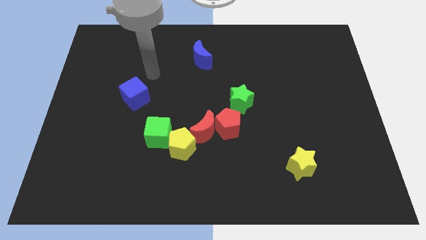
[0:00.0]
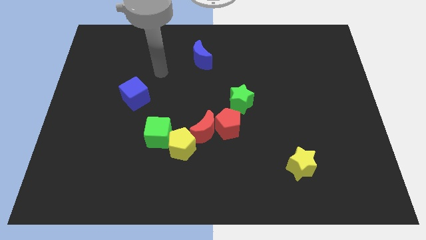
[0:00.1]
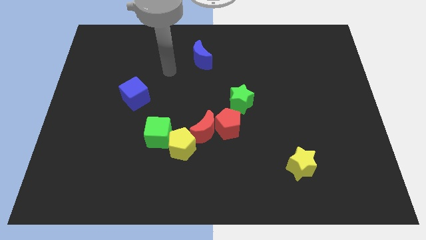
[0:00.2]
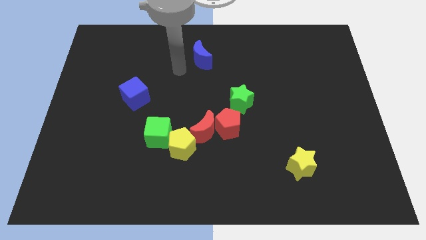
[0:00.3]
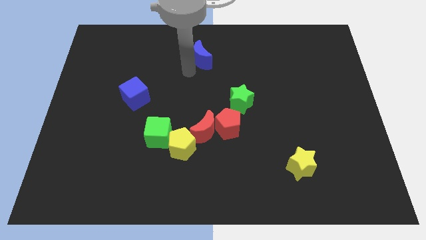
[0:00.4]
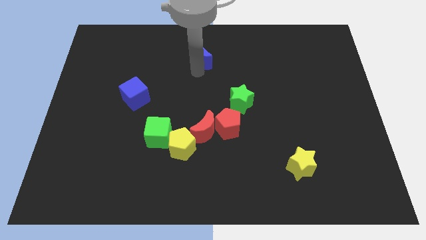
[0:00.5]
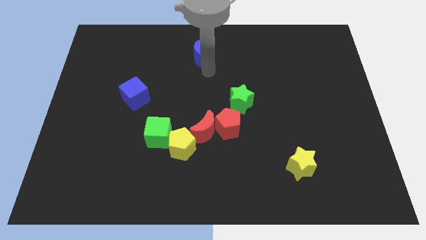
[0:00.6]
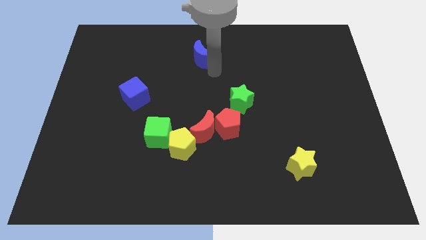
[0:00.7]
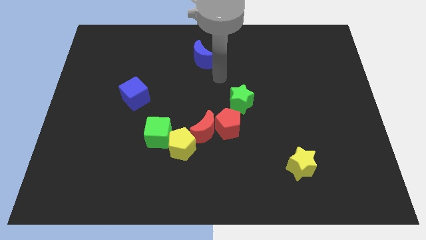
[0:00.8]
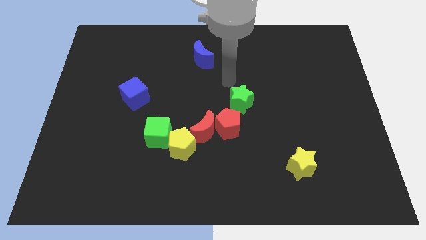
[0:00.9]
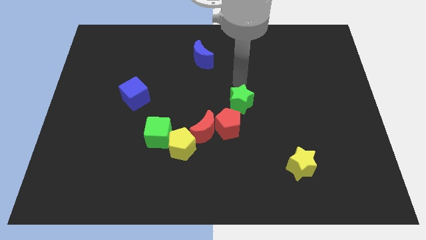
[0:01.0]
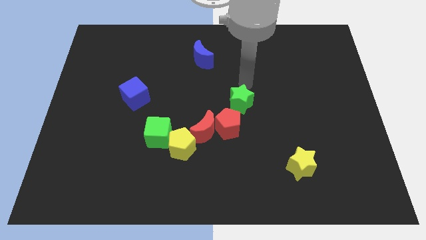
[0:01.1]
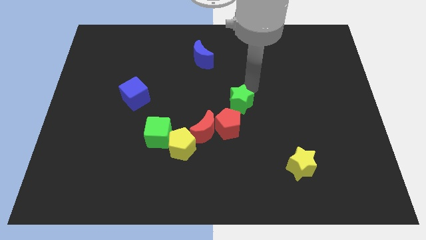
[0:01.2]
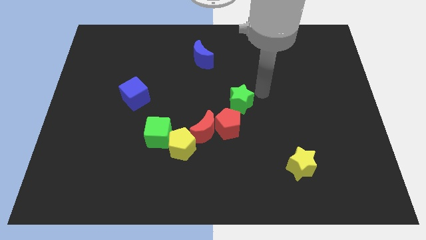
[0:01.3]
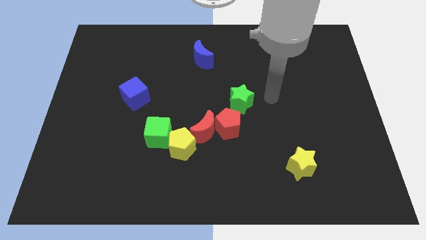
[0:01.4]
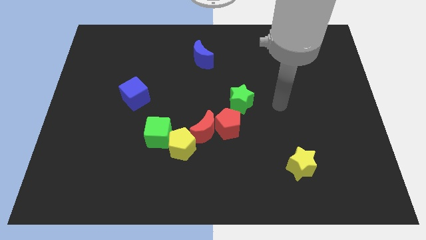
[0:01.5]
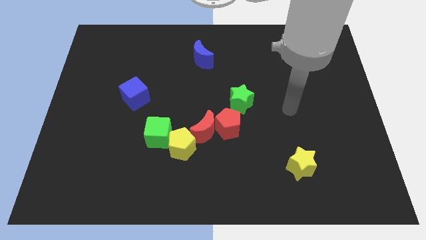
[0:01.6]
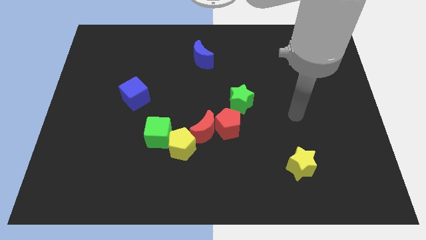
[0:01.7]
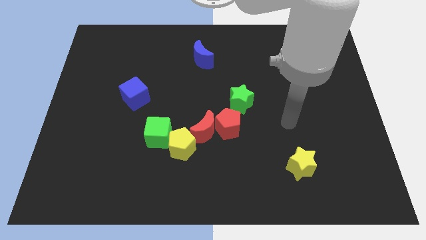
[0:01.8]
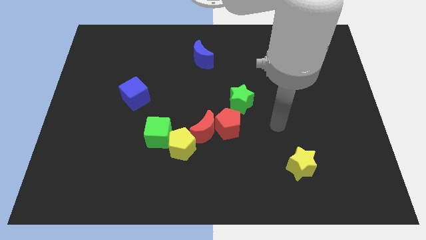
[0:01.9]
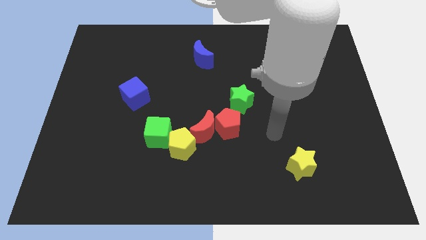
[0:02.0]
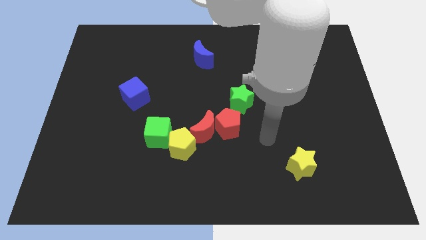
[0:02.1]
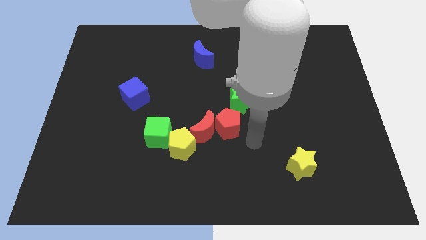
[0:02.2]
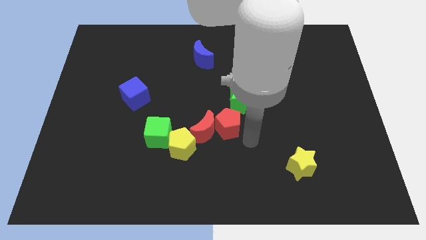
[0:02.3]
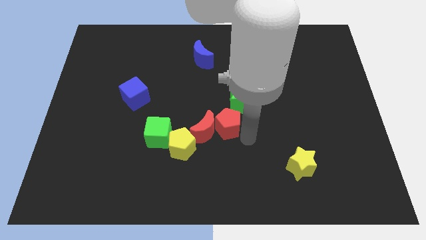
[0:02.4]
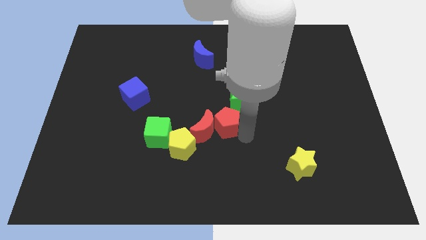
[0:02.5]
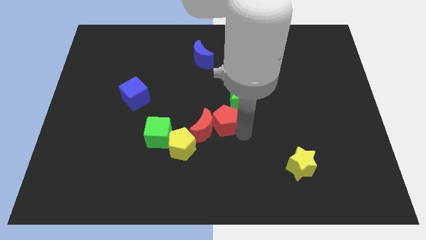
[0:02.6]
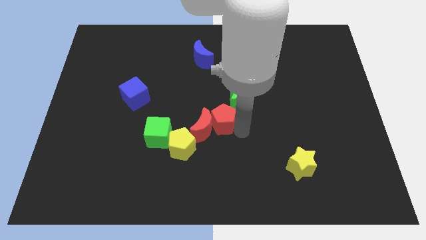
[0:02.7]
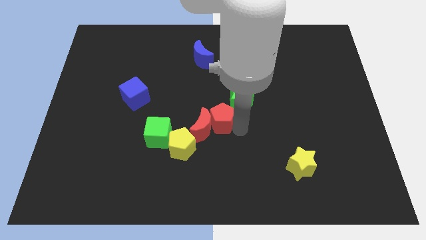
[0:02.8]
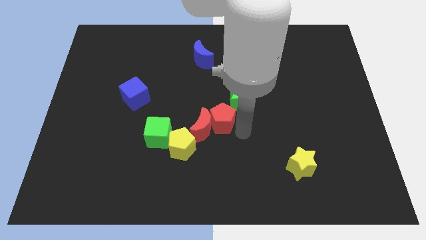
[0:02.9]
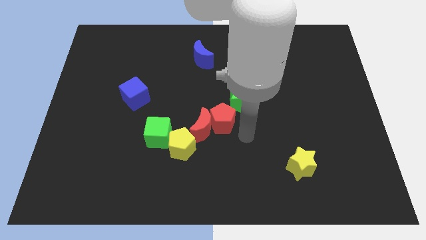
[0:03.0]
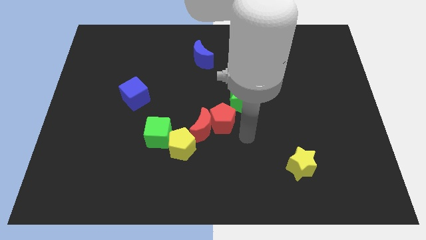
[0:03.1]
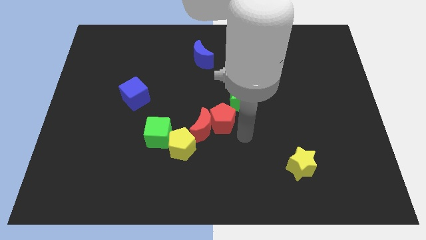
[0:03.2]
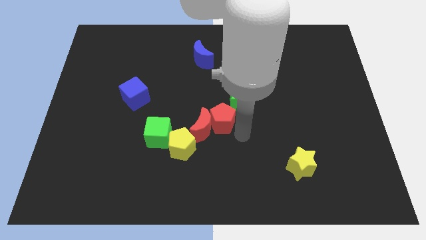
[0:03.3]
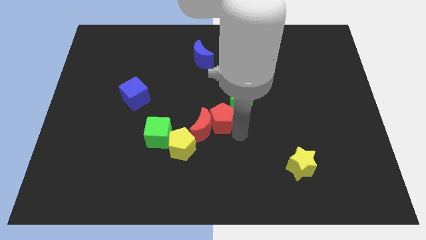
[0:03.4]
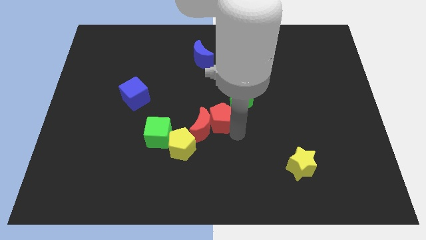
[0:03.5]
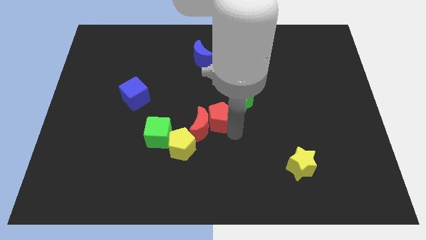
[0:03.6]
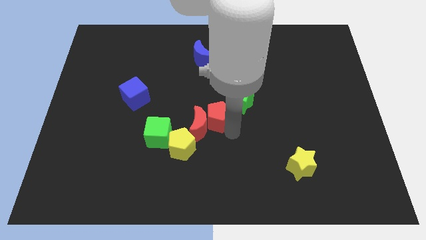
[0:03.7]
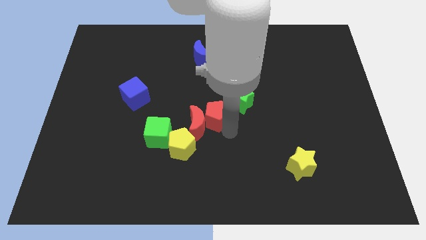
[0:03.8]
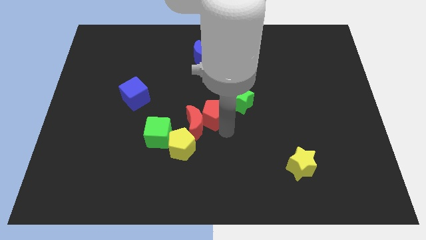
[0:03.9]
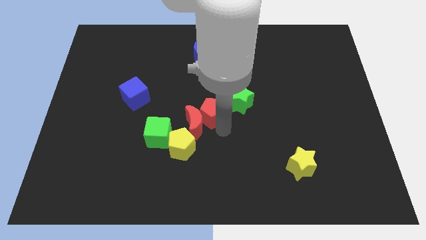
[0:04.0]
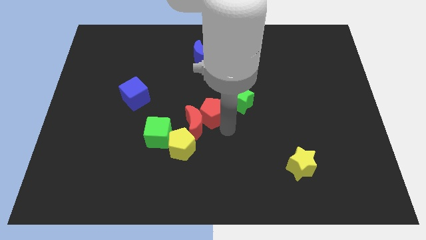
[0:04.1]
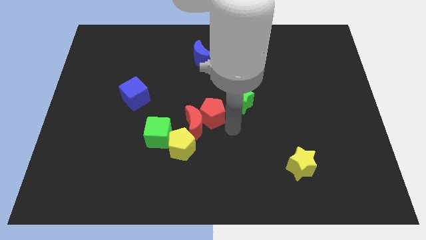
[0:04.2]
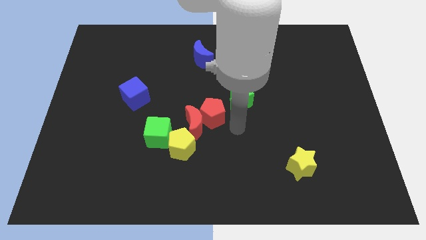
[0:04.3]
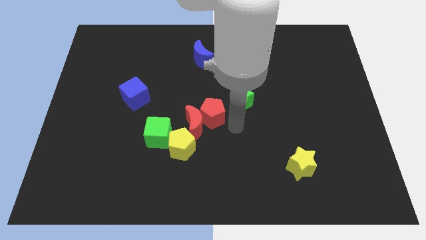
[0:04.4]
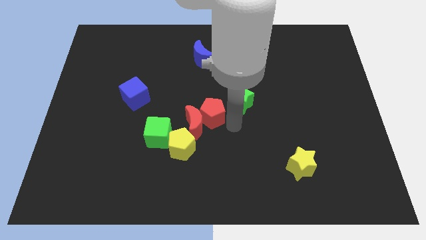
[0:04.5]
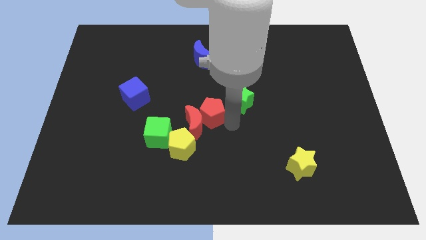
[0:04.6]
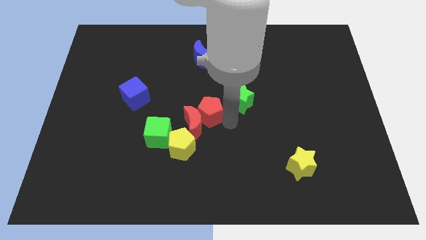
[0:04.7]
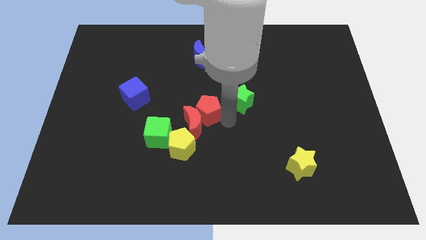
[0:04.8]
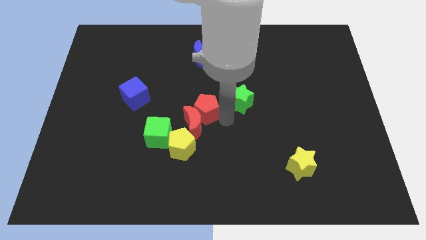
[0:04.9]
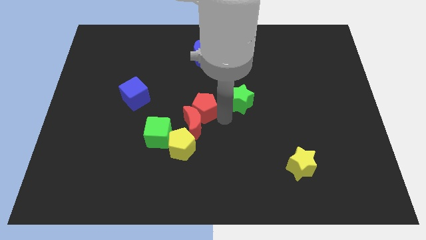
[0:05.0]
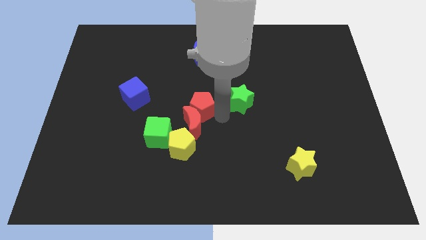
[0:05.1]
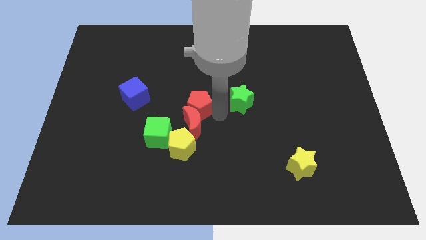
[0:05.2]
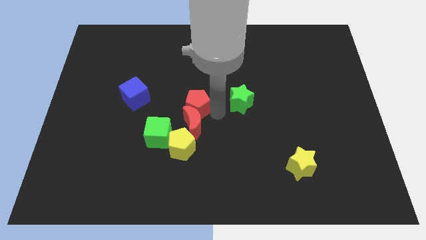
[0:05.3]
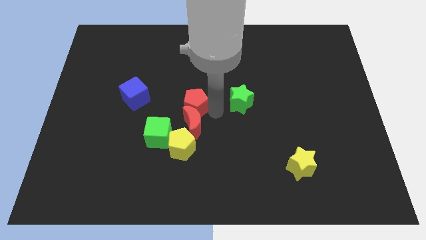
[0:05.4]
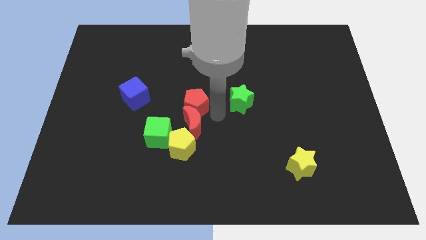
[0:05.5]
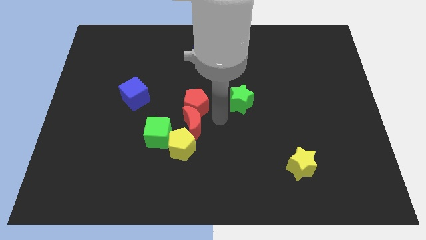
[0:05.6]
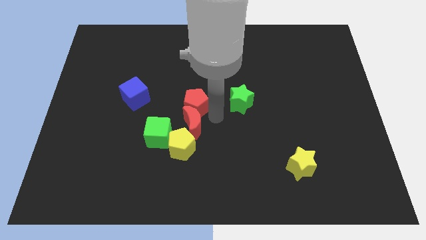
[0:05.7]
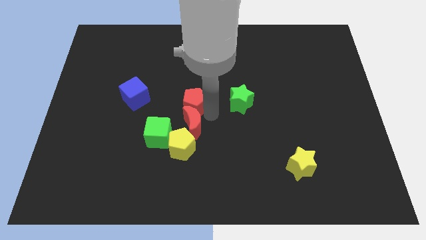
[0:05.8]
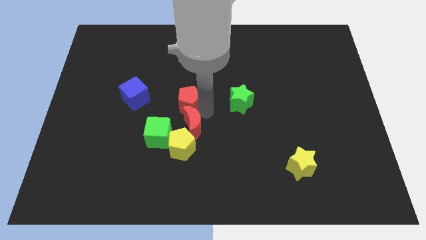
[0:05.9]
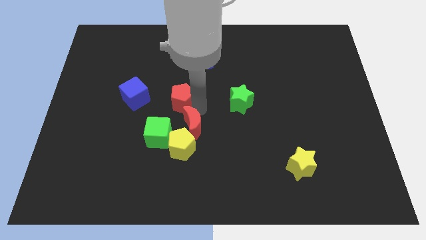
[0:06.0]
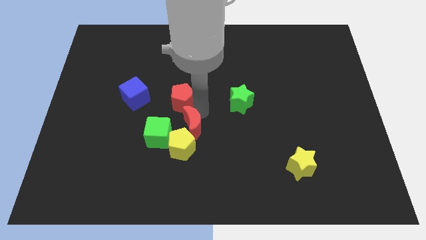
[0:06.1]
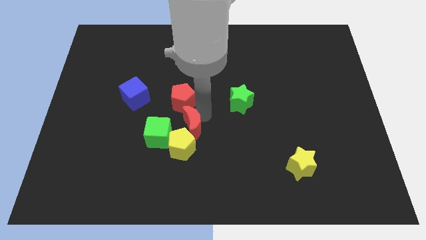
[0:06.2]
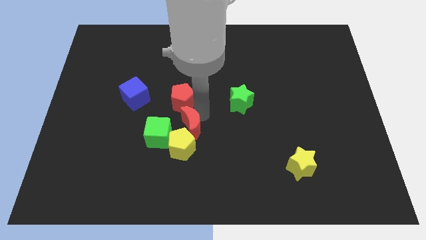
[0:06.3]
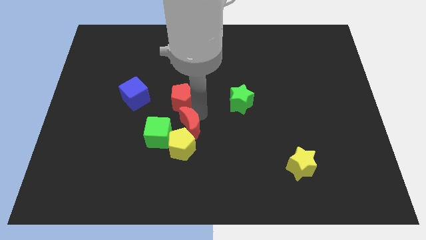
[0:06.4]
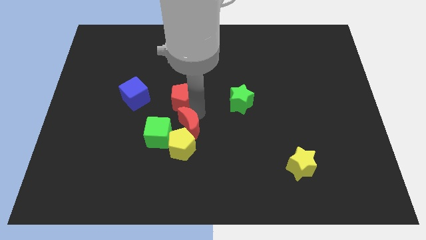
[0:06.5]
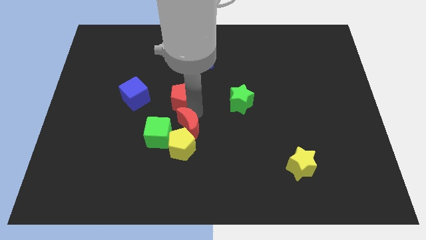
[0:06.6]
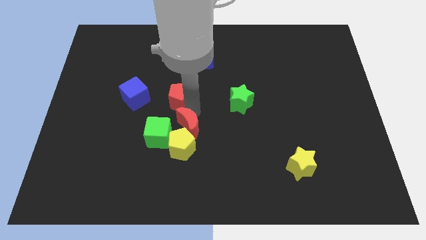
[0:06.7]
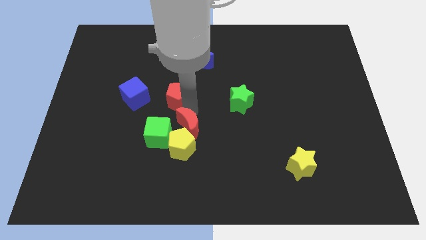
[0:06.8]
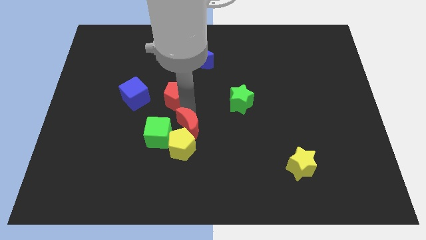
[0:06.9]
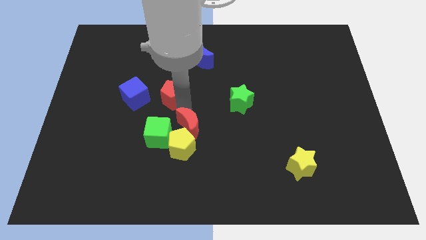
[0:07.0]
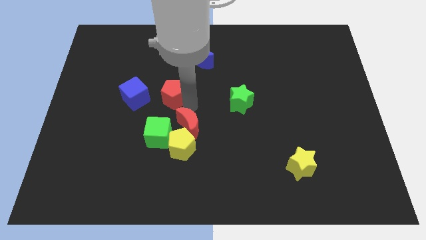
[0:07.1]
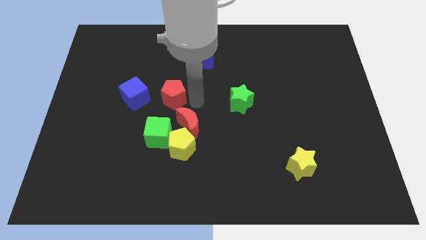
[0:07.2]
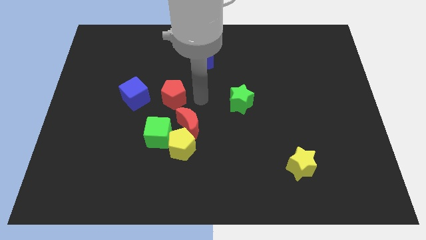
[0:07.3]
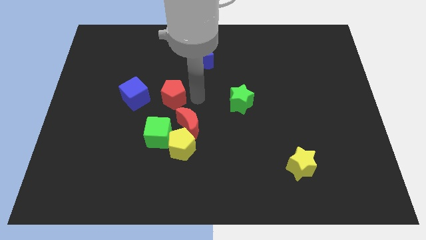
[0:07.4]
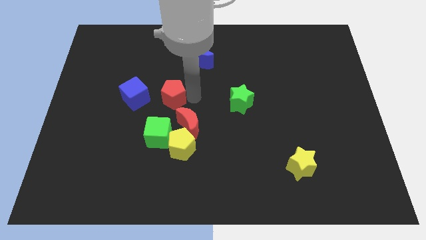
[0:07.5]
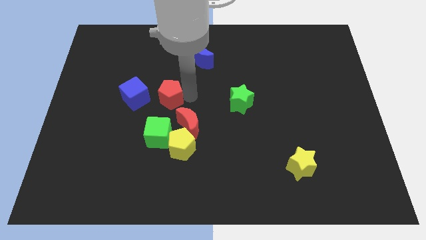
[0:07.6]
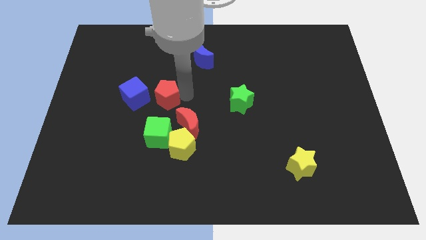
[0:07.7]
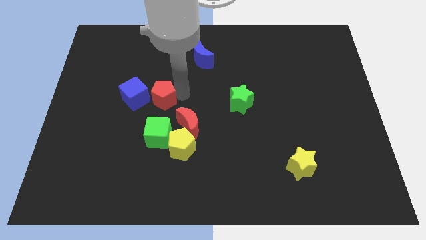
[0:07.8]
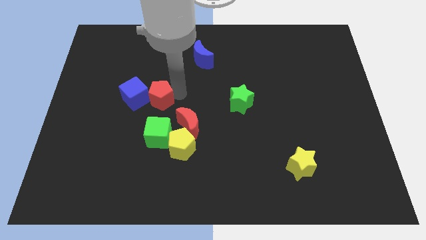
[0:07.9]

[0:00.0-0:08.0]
put the red pentagon towards the blue cube
